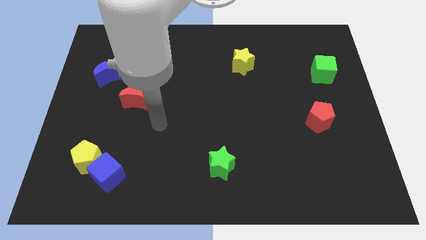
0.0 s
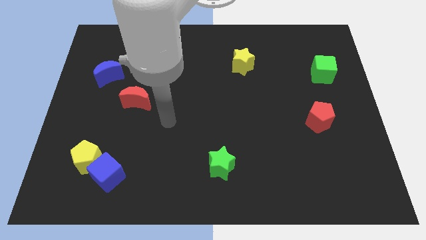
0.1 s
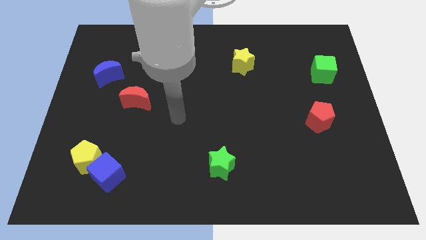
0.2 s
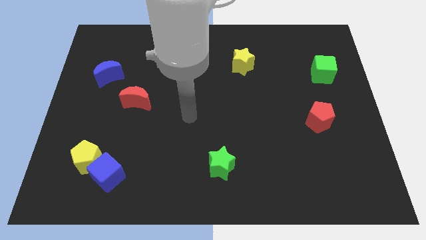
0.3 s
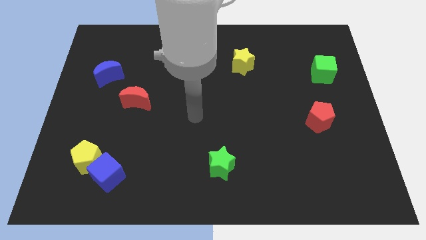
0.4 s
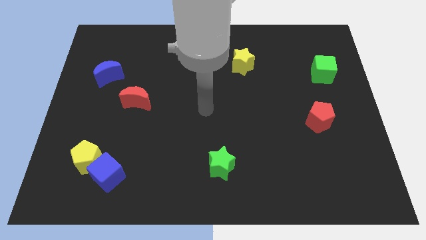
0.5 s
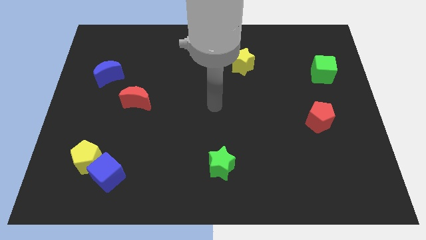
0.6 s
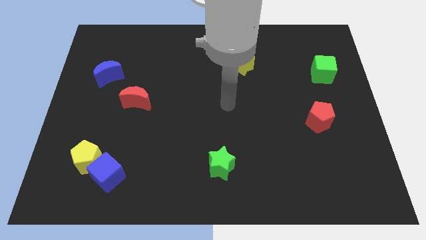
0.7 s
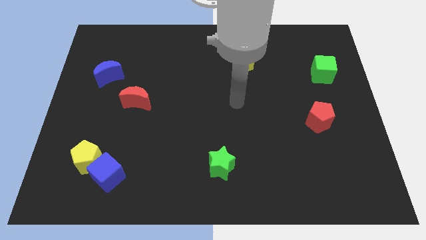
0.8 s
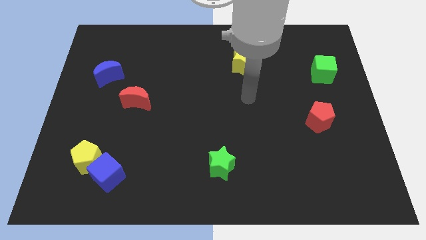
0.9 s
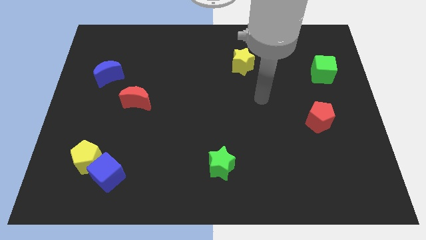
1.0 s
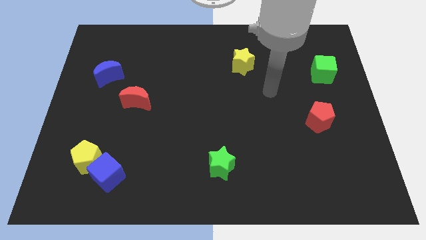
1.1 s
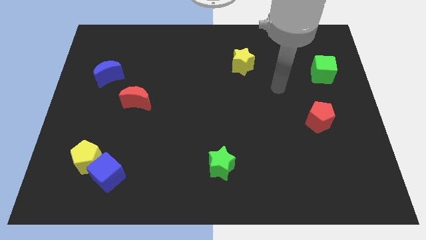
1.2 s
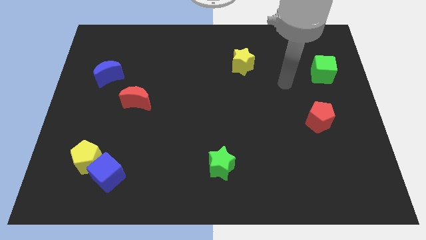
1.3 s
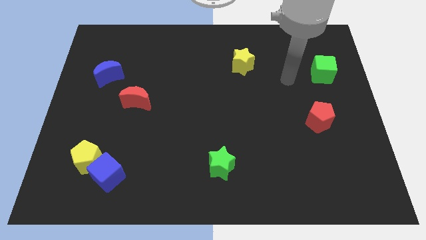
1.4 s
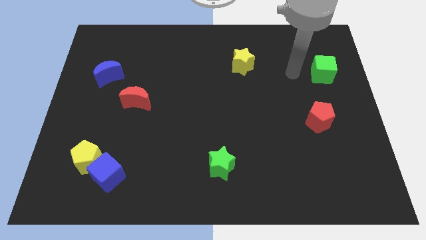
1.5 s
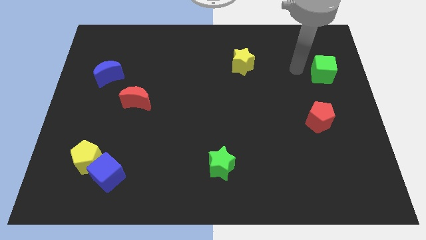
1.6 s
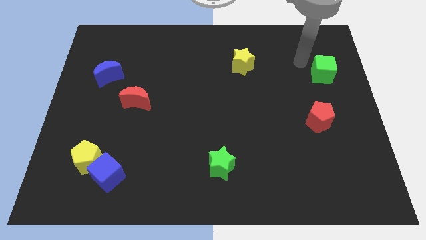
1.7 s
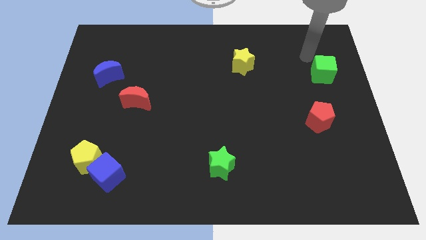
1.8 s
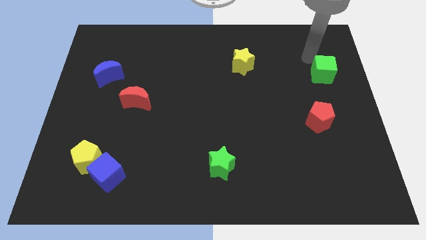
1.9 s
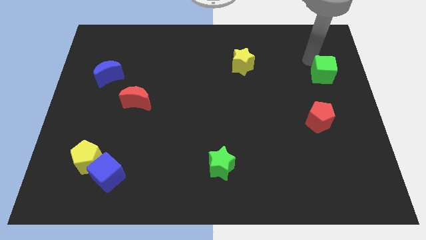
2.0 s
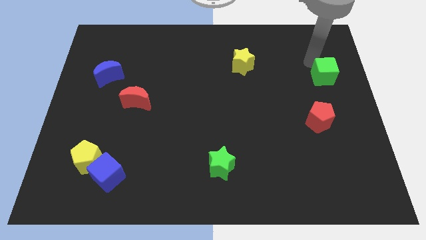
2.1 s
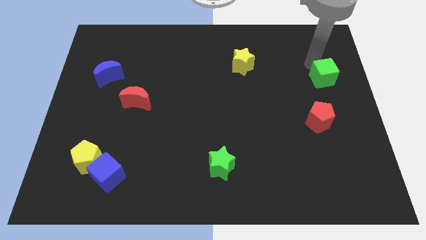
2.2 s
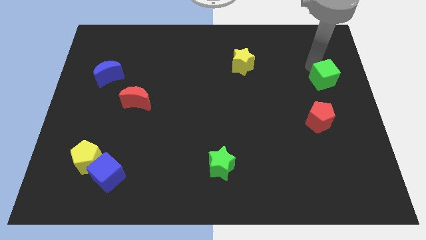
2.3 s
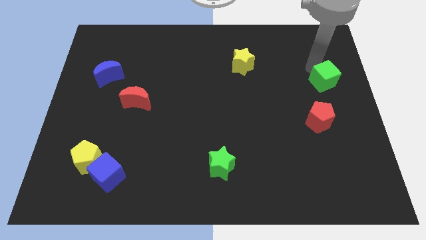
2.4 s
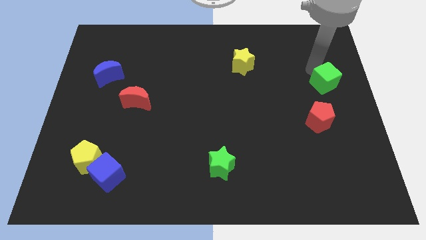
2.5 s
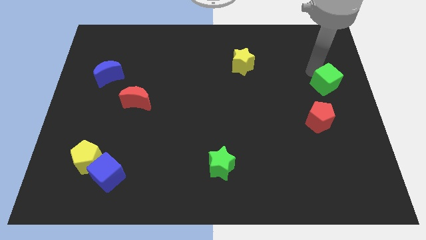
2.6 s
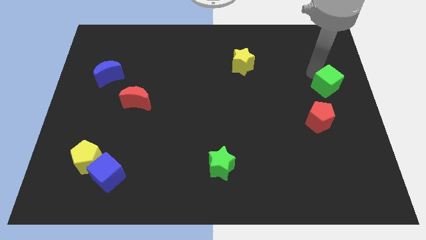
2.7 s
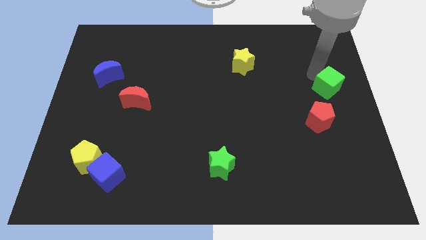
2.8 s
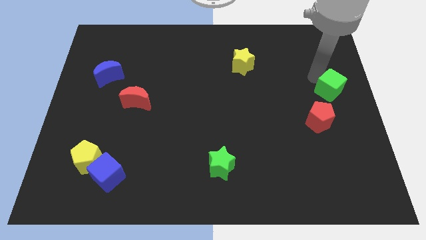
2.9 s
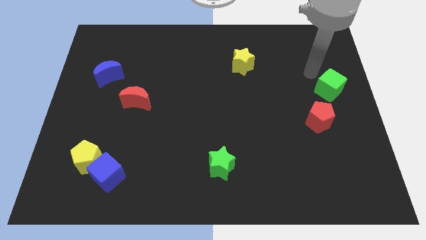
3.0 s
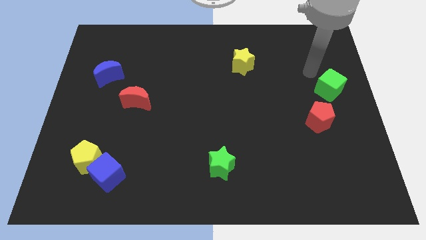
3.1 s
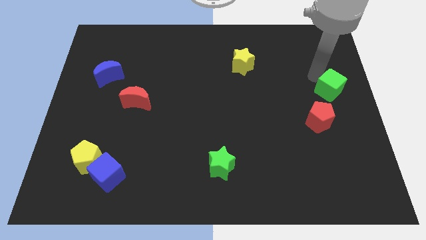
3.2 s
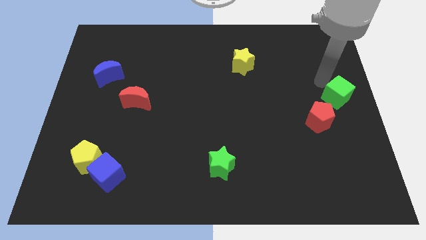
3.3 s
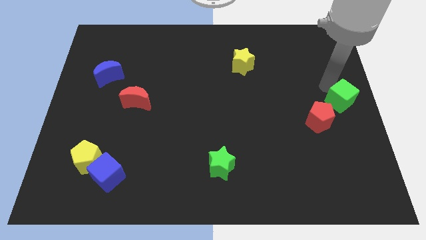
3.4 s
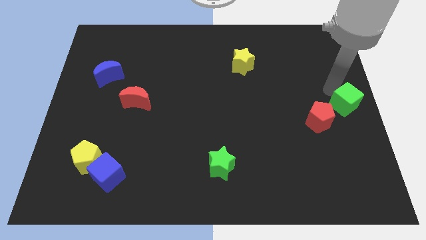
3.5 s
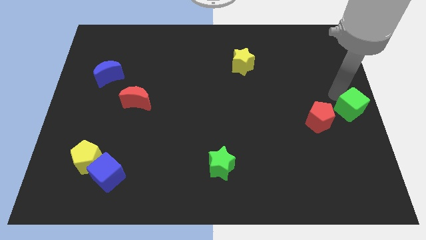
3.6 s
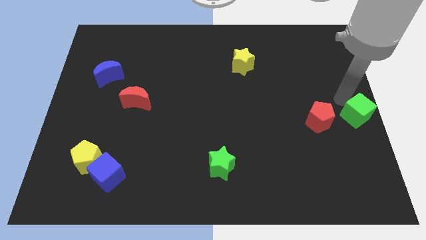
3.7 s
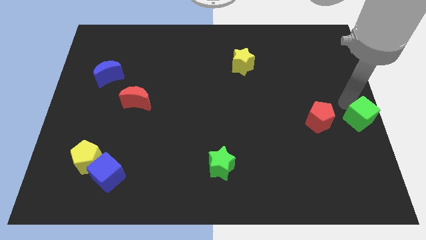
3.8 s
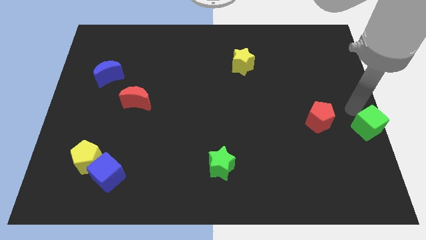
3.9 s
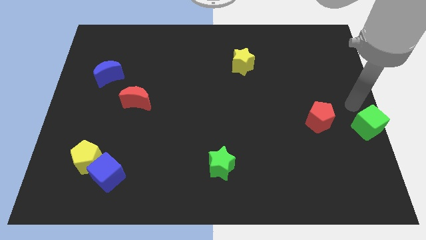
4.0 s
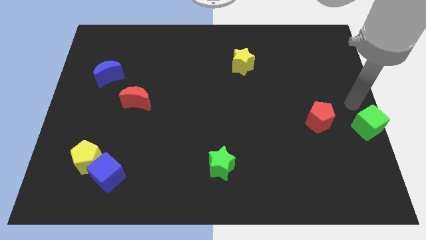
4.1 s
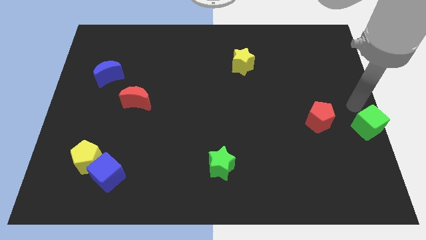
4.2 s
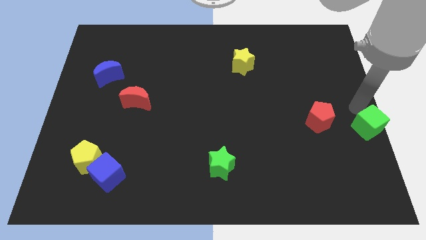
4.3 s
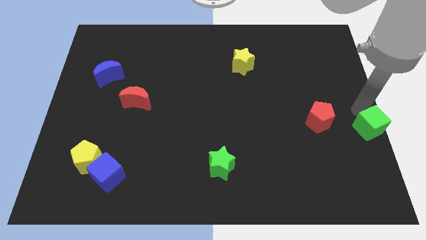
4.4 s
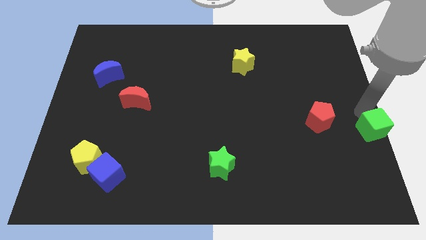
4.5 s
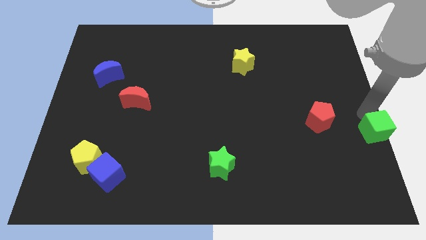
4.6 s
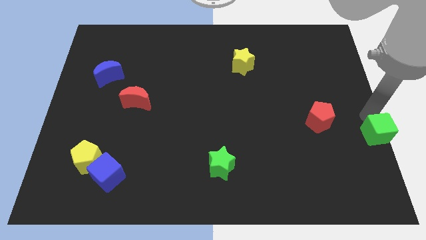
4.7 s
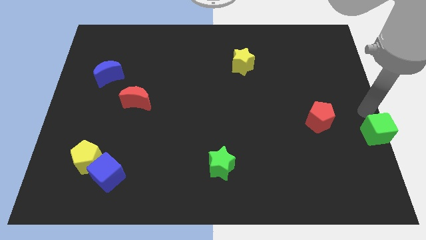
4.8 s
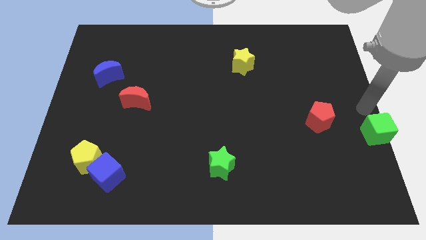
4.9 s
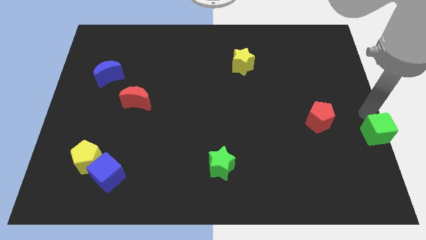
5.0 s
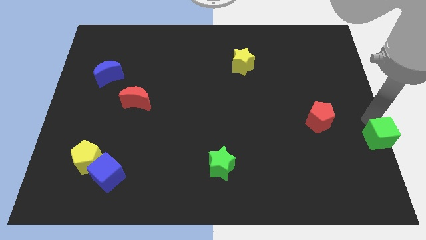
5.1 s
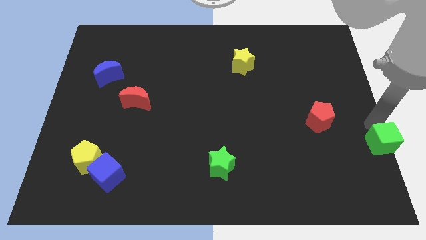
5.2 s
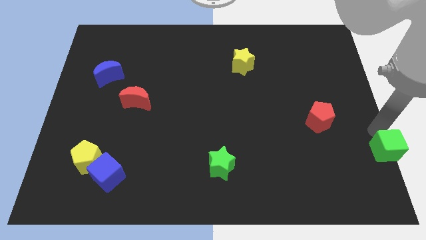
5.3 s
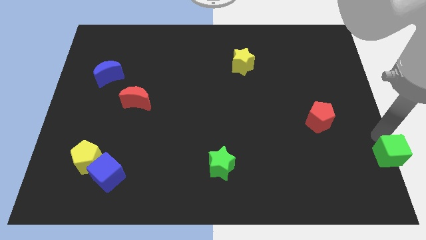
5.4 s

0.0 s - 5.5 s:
slide the green cube to the bottom right of the board

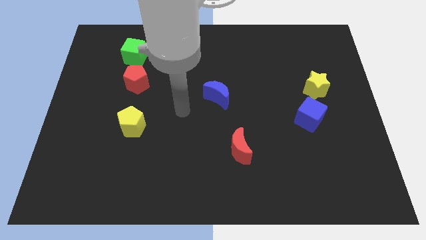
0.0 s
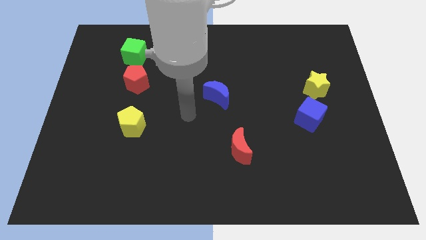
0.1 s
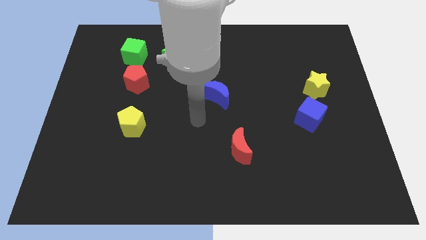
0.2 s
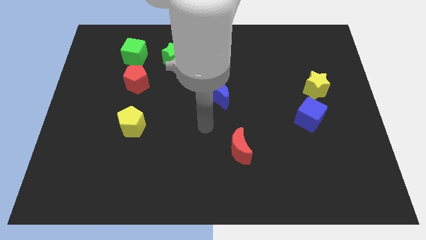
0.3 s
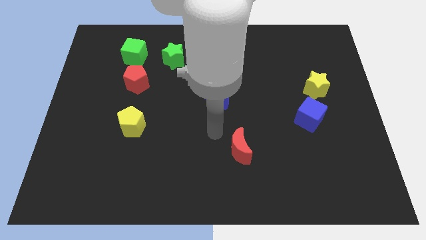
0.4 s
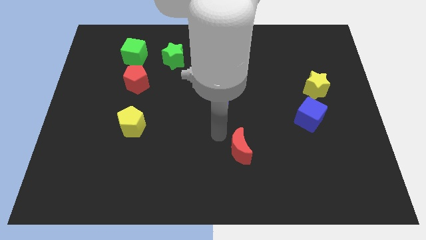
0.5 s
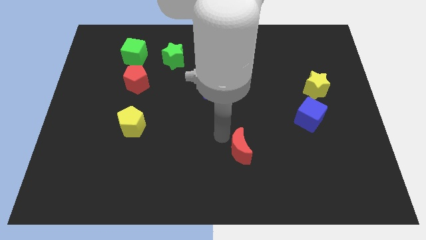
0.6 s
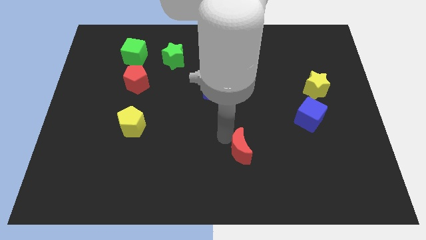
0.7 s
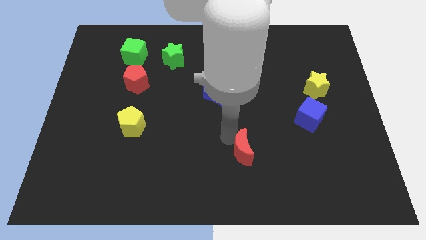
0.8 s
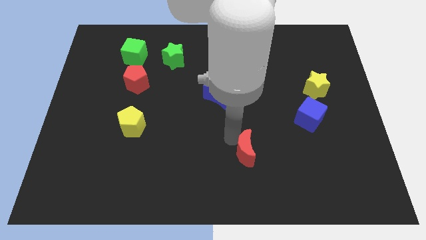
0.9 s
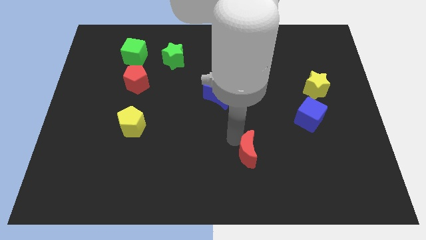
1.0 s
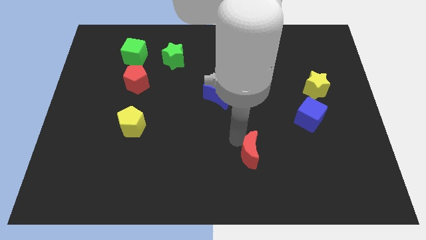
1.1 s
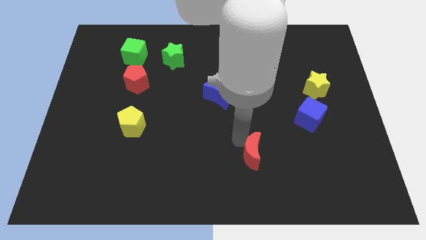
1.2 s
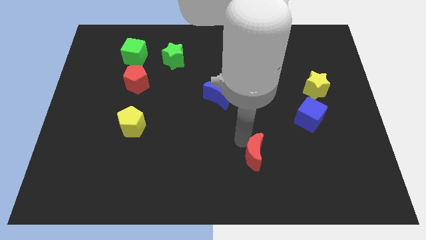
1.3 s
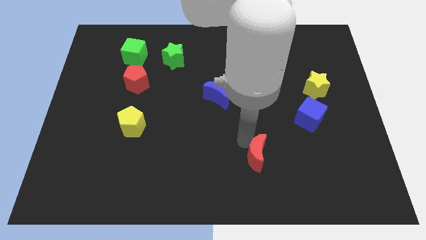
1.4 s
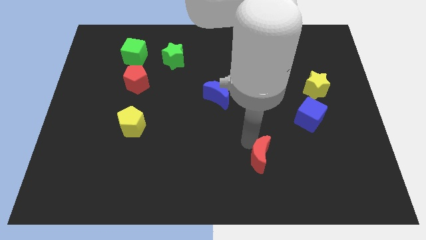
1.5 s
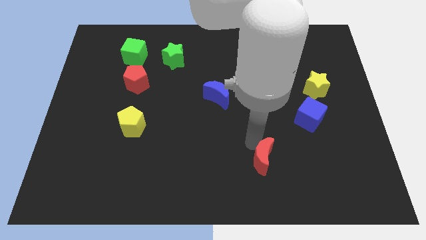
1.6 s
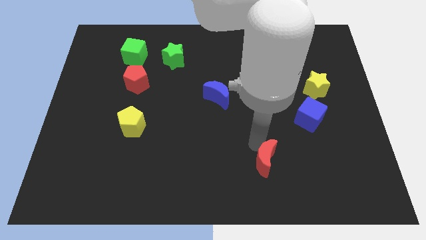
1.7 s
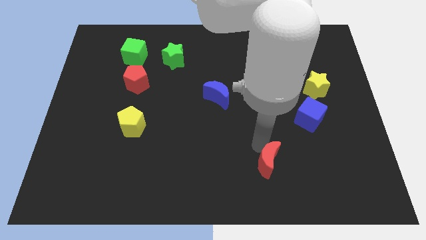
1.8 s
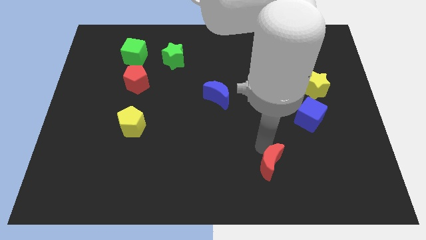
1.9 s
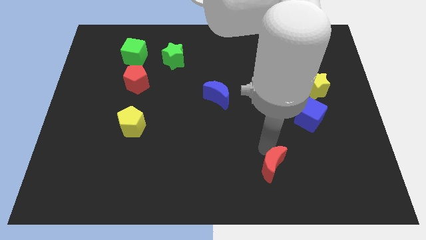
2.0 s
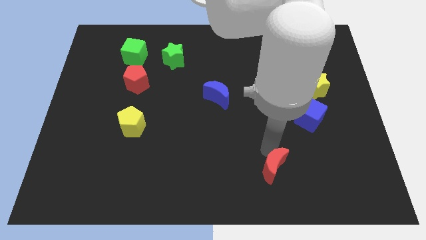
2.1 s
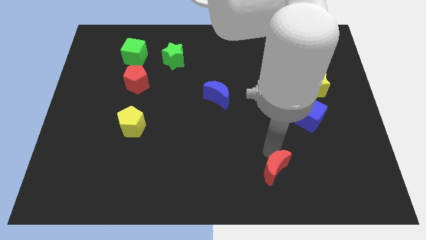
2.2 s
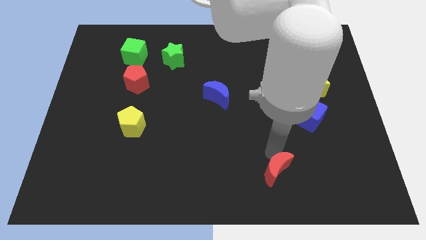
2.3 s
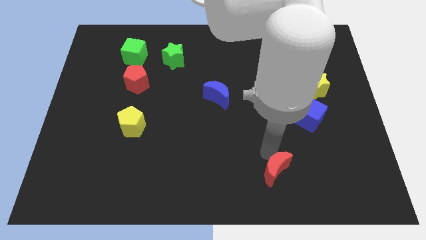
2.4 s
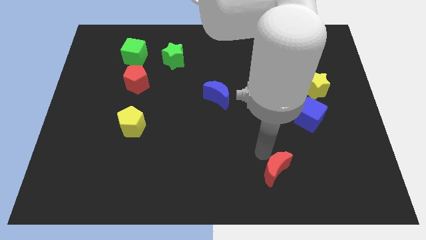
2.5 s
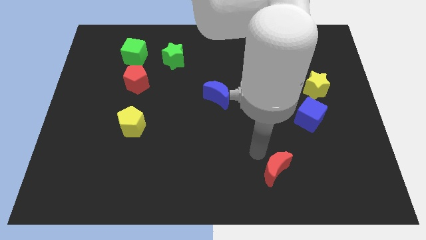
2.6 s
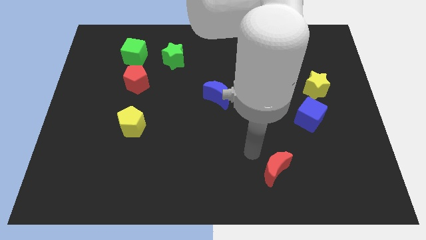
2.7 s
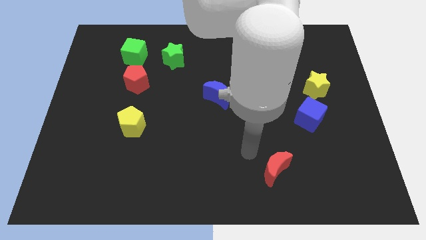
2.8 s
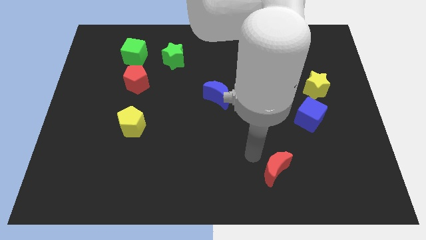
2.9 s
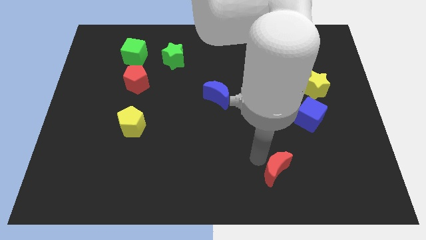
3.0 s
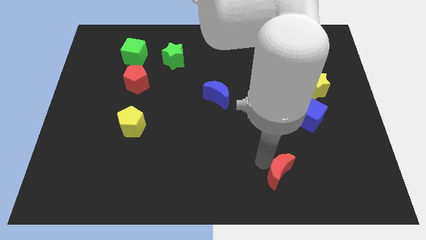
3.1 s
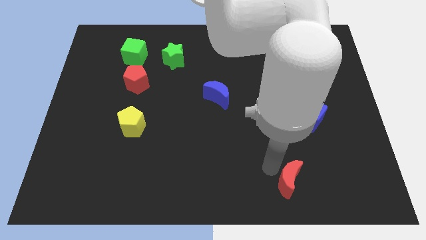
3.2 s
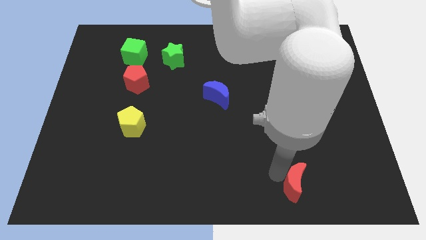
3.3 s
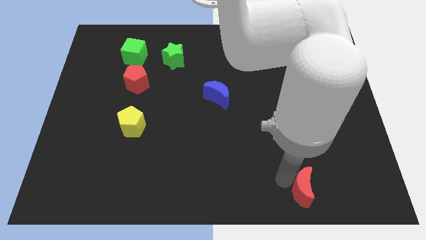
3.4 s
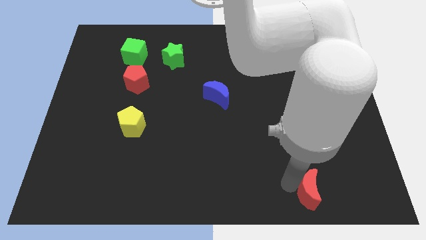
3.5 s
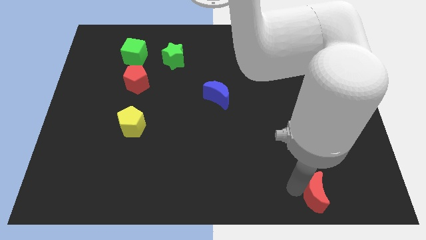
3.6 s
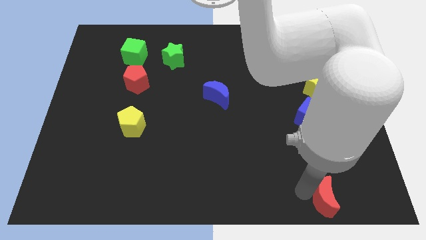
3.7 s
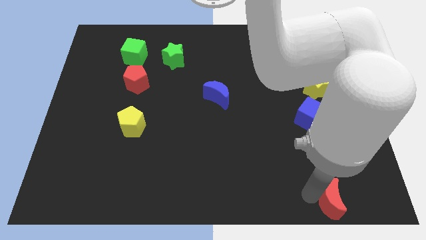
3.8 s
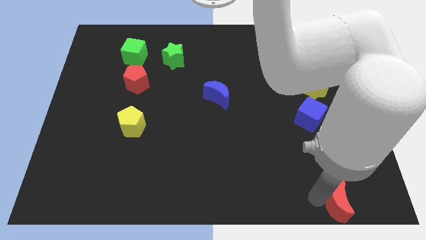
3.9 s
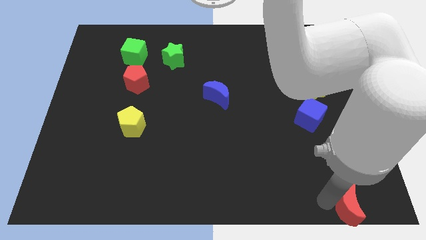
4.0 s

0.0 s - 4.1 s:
push the red moon to the bottom right corner
